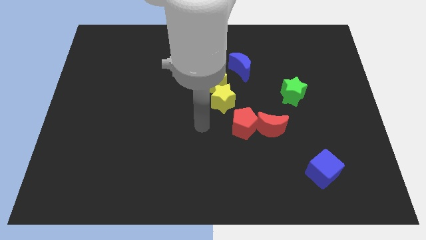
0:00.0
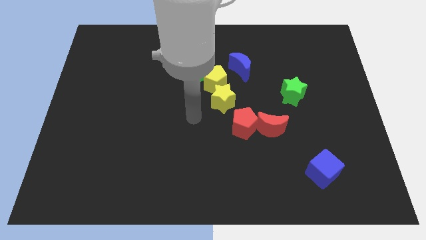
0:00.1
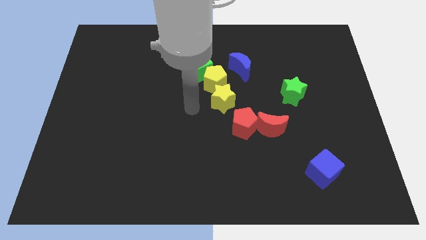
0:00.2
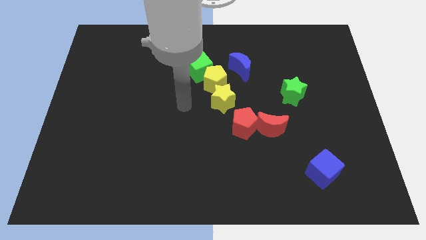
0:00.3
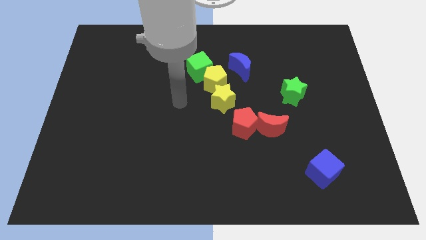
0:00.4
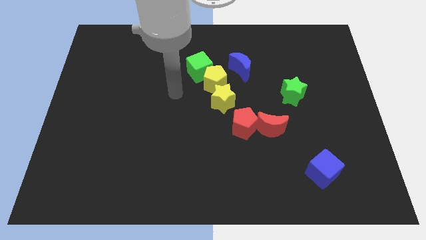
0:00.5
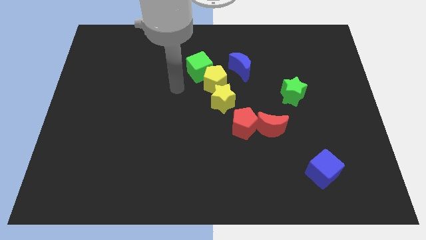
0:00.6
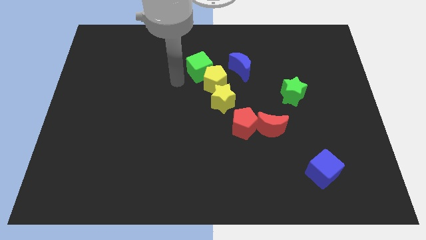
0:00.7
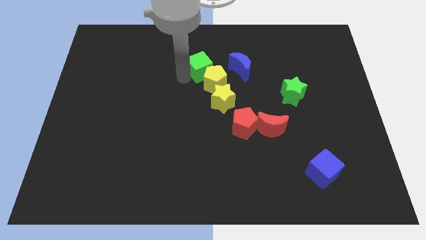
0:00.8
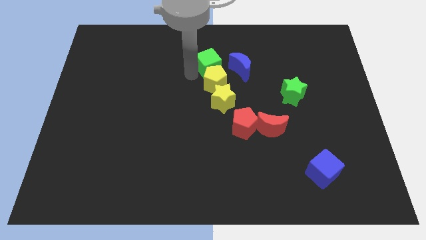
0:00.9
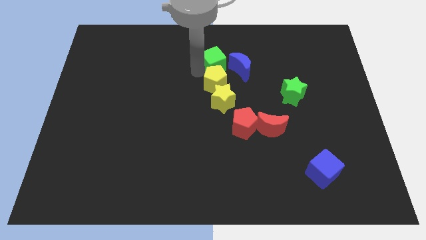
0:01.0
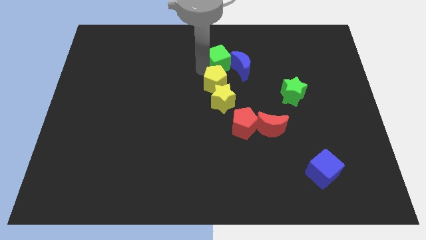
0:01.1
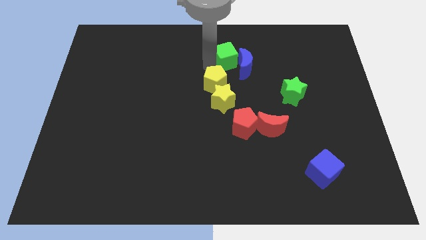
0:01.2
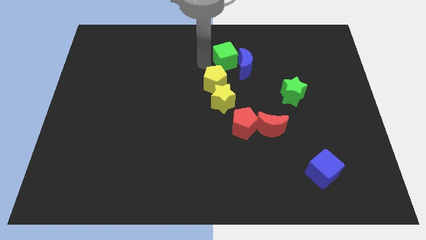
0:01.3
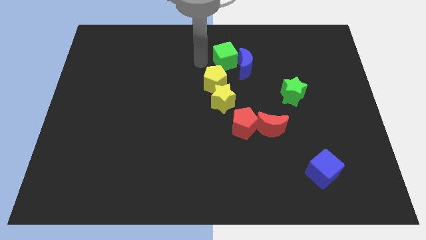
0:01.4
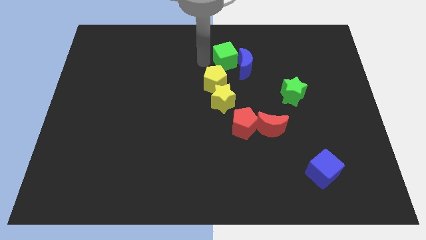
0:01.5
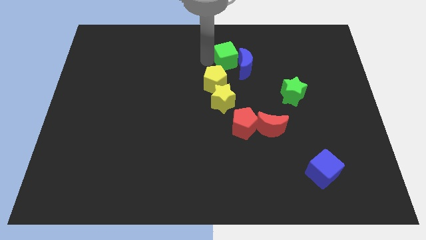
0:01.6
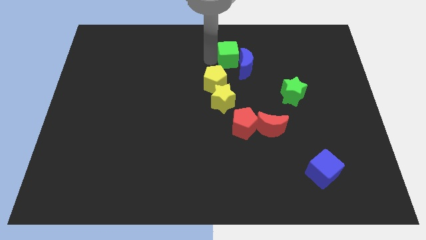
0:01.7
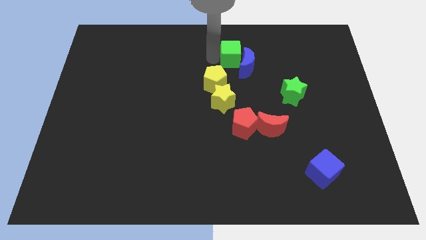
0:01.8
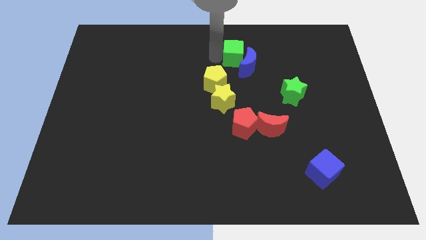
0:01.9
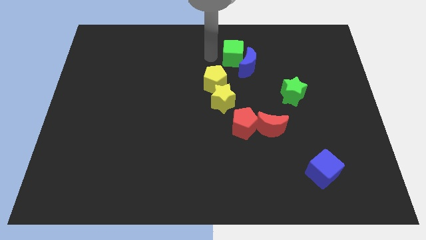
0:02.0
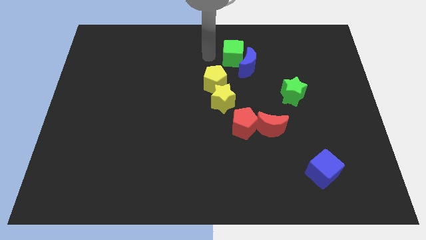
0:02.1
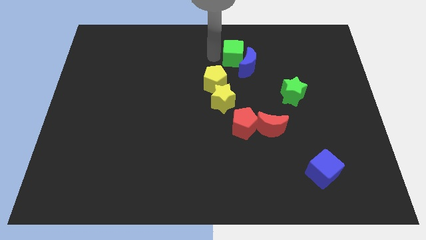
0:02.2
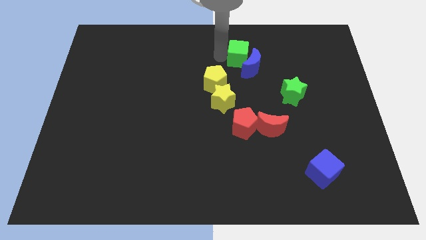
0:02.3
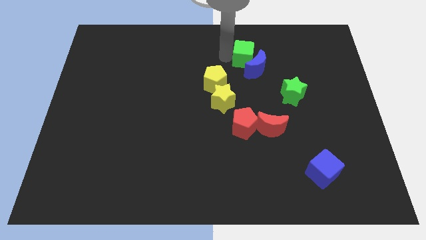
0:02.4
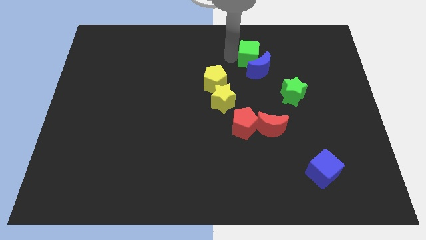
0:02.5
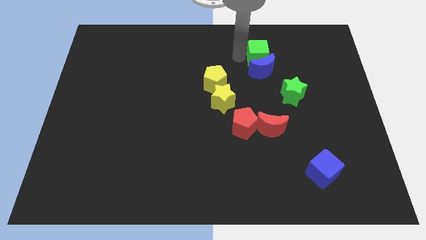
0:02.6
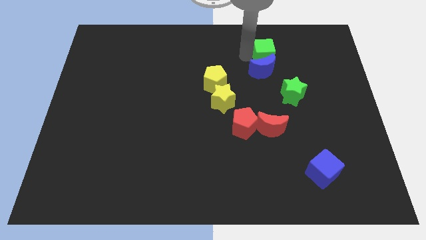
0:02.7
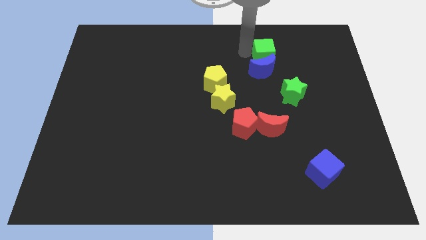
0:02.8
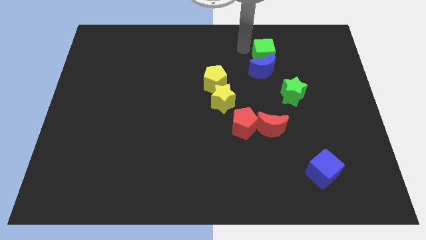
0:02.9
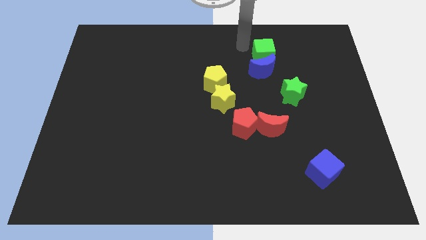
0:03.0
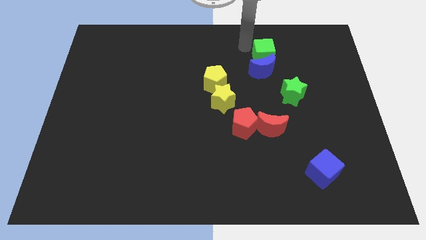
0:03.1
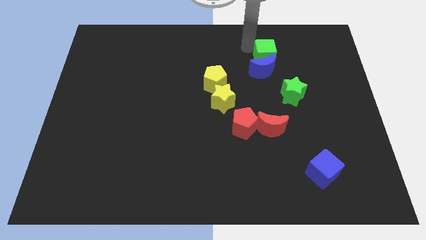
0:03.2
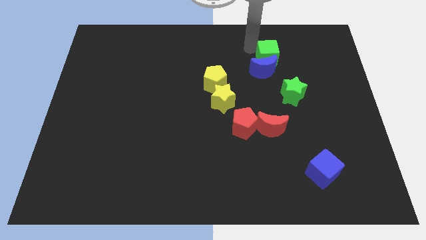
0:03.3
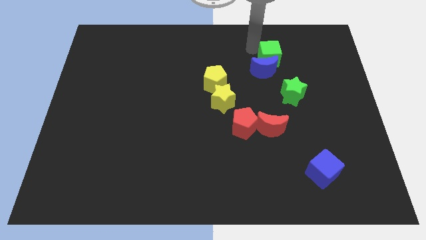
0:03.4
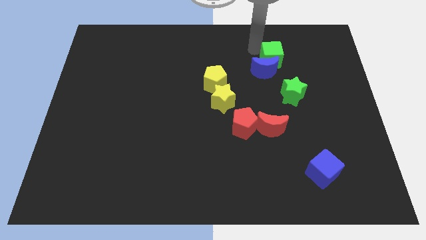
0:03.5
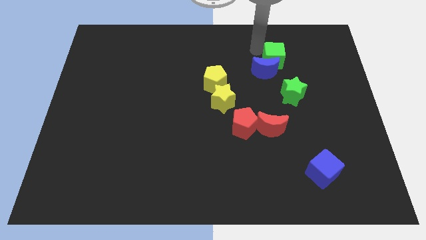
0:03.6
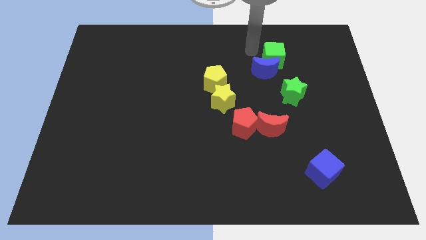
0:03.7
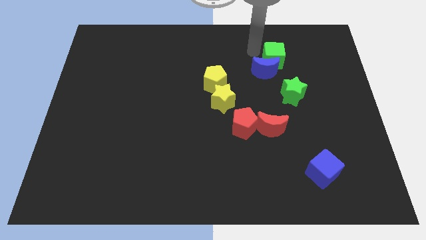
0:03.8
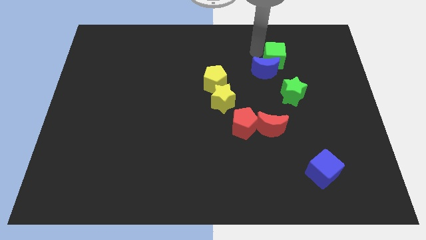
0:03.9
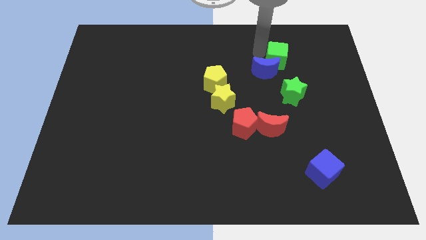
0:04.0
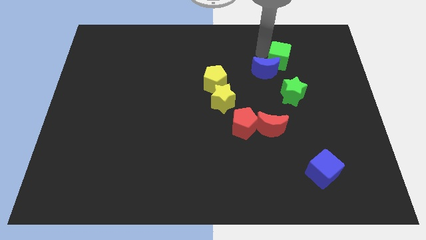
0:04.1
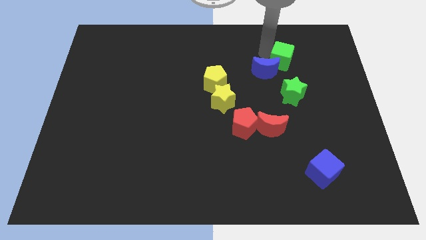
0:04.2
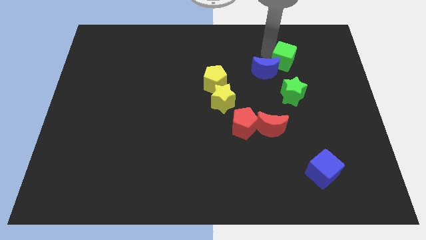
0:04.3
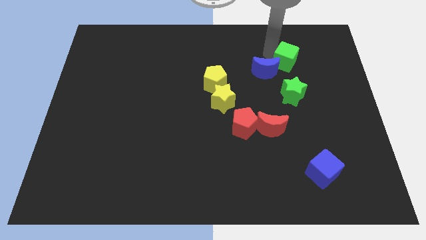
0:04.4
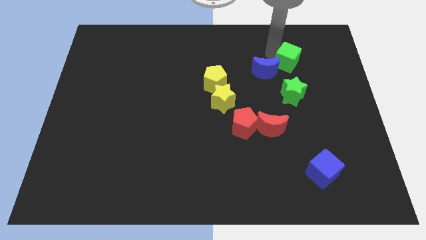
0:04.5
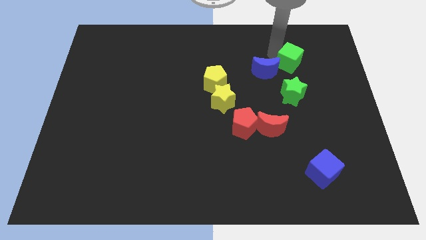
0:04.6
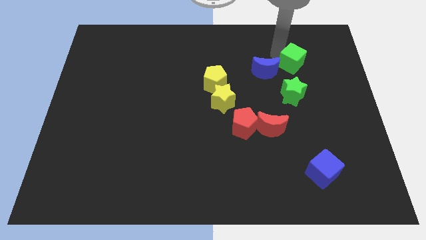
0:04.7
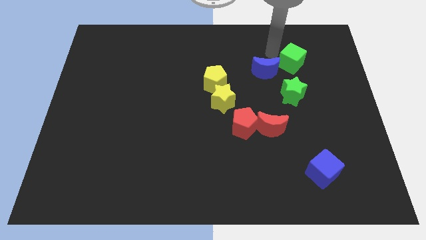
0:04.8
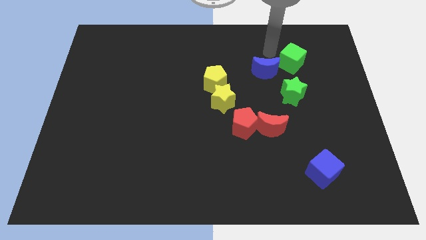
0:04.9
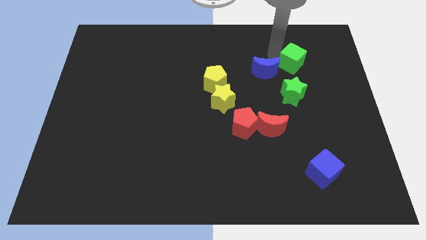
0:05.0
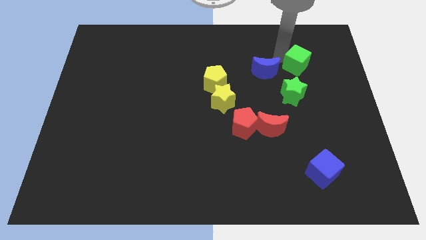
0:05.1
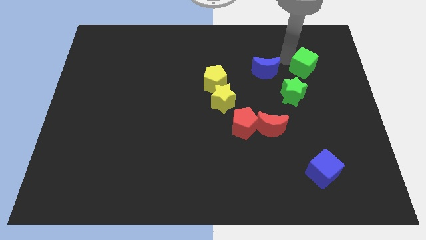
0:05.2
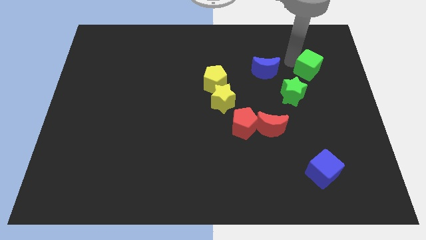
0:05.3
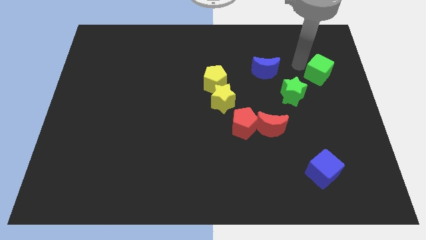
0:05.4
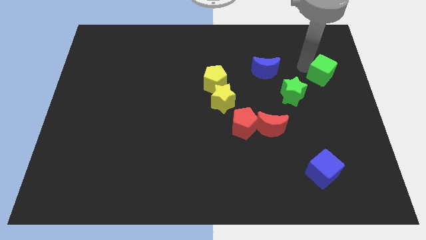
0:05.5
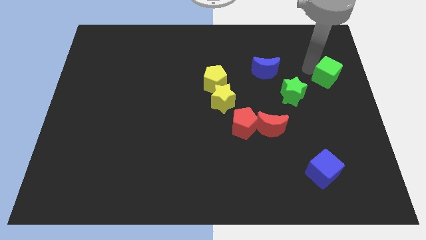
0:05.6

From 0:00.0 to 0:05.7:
put the green cube to the center right

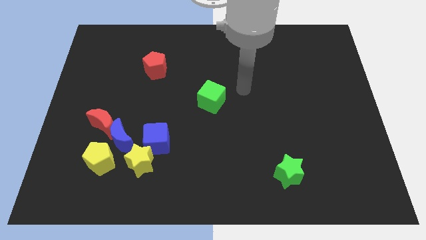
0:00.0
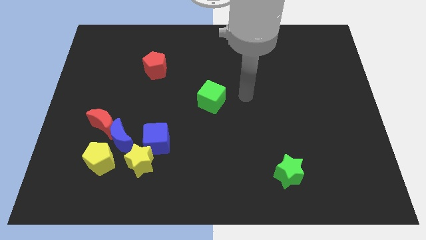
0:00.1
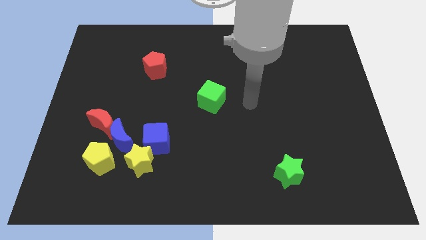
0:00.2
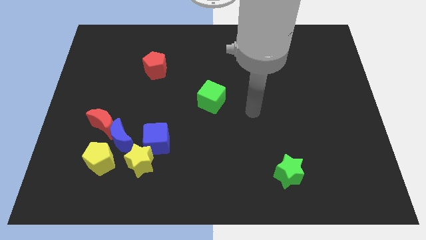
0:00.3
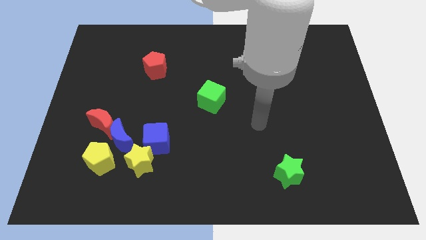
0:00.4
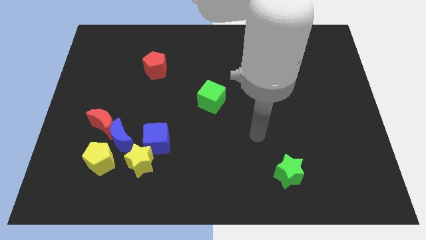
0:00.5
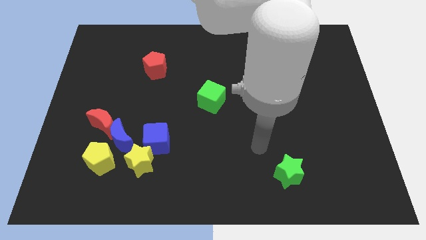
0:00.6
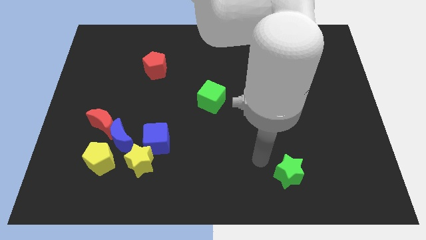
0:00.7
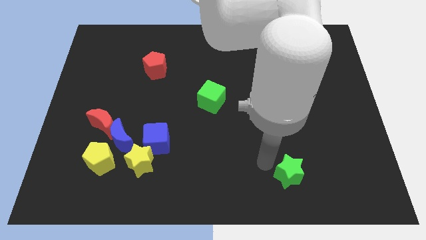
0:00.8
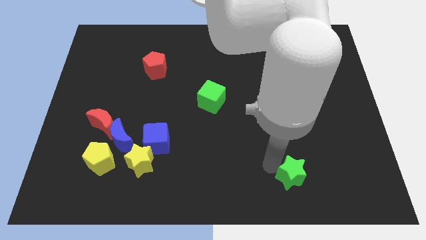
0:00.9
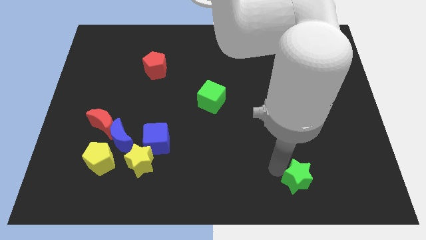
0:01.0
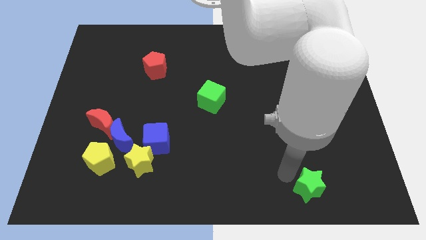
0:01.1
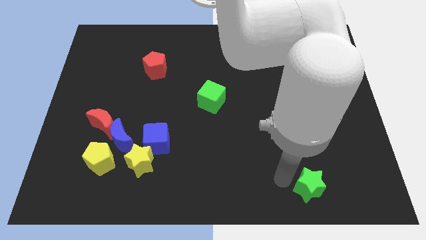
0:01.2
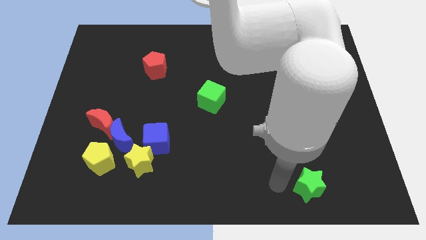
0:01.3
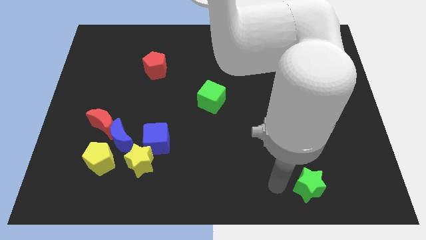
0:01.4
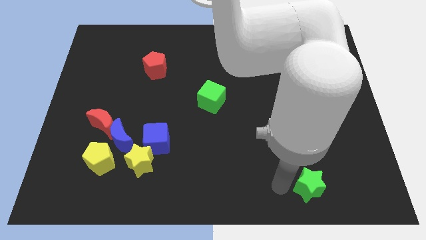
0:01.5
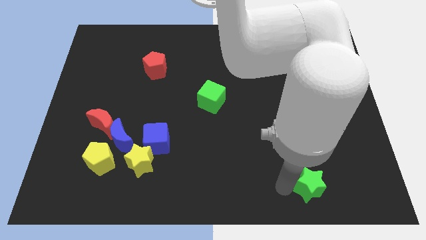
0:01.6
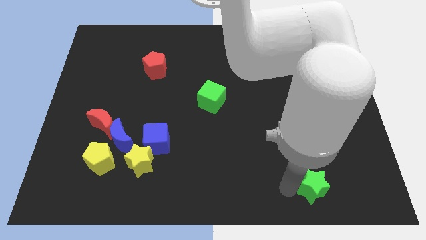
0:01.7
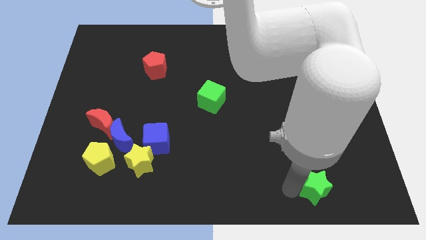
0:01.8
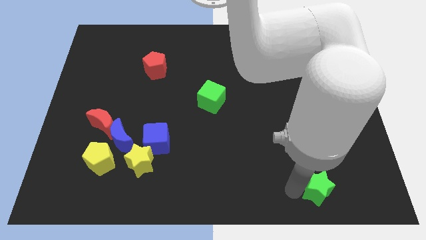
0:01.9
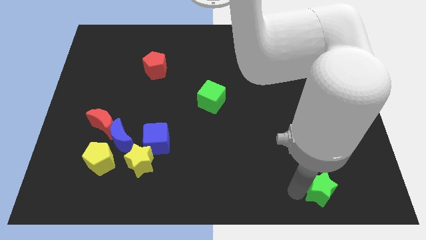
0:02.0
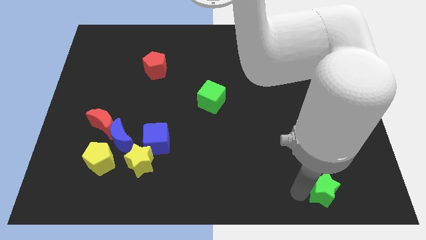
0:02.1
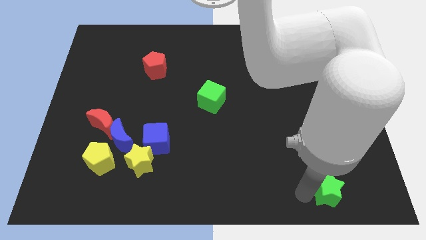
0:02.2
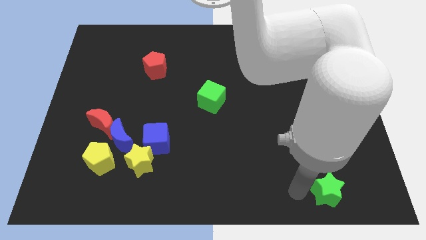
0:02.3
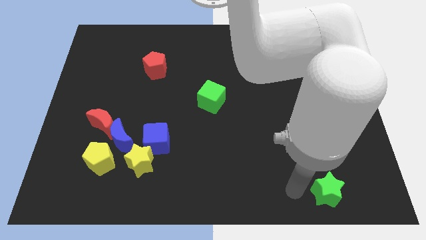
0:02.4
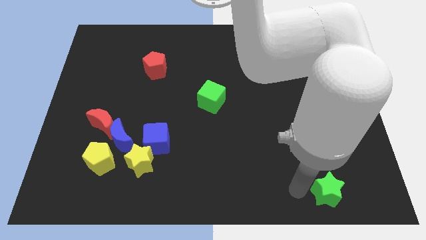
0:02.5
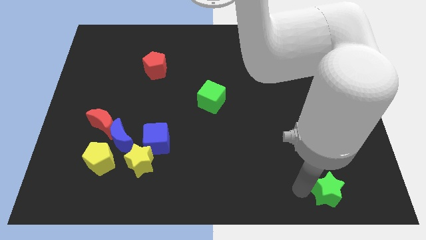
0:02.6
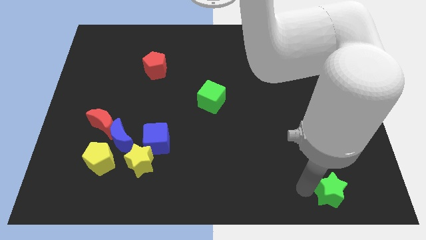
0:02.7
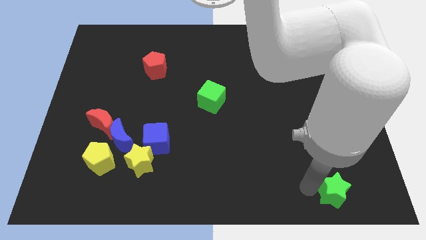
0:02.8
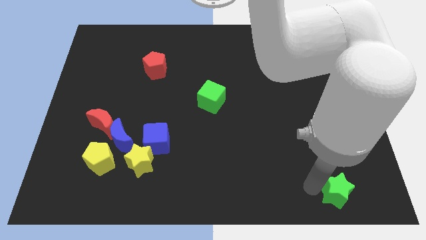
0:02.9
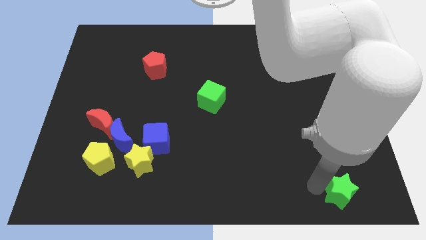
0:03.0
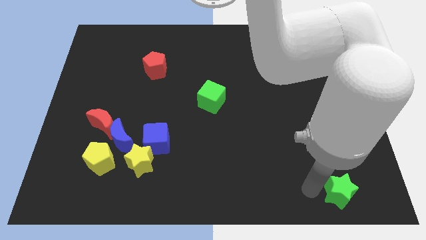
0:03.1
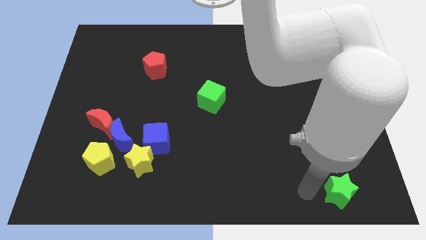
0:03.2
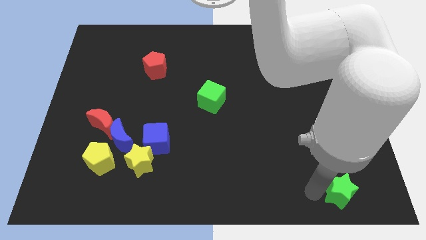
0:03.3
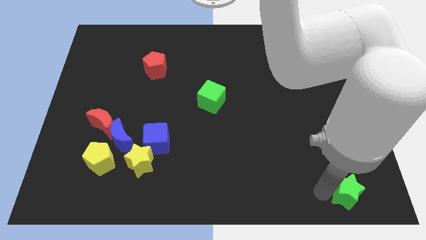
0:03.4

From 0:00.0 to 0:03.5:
slide the green star to the lower right corner
